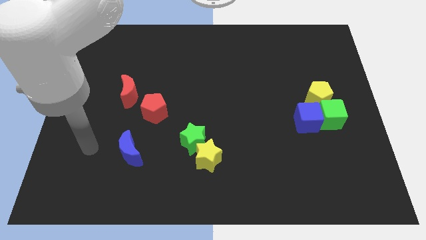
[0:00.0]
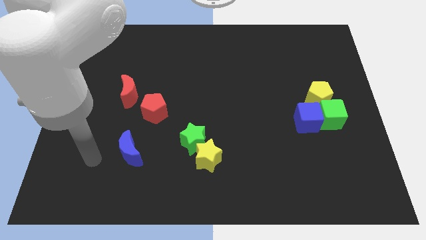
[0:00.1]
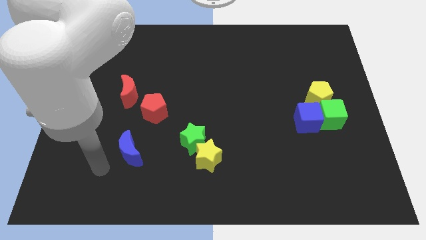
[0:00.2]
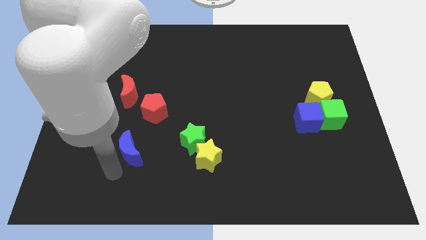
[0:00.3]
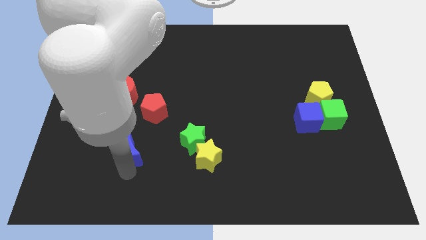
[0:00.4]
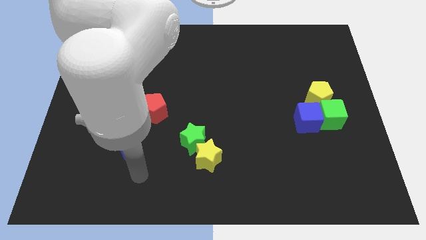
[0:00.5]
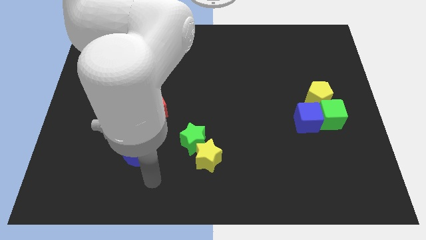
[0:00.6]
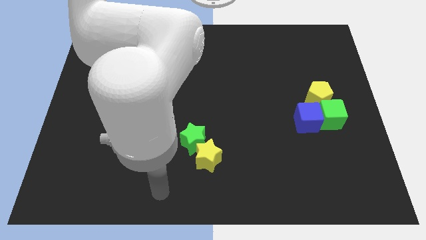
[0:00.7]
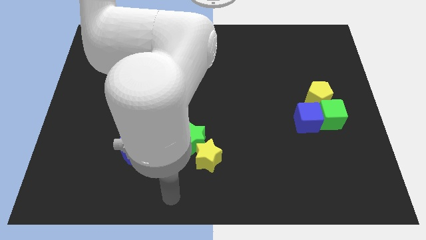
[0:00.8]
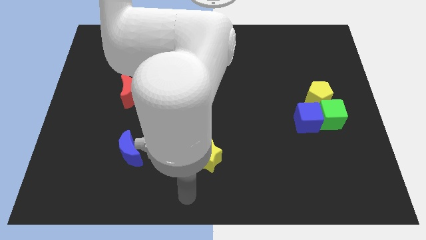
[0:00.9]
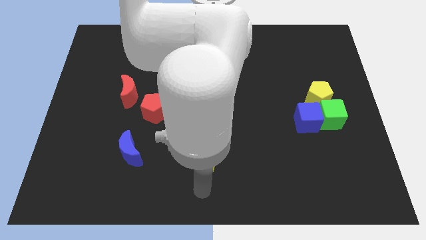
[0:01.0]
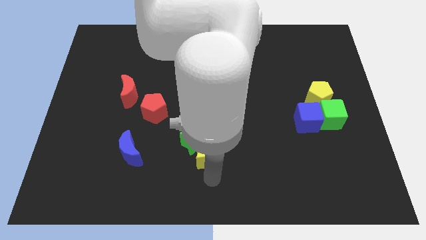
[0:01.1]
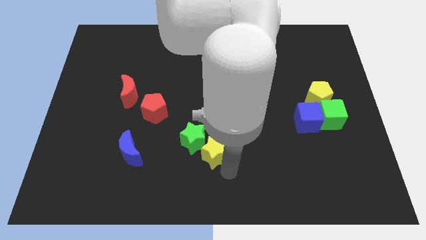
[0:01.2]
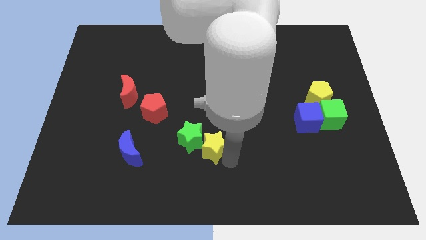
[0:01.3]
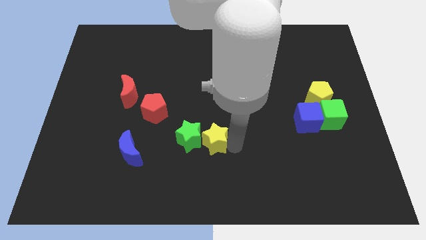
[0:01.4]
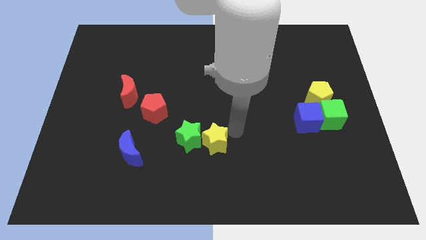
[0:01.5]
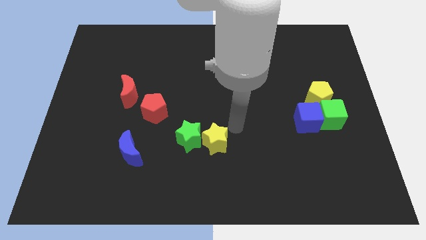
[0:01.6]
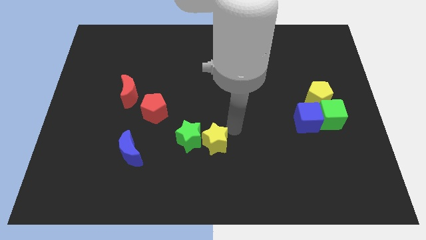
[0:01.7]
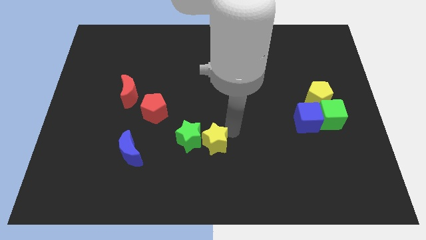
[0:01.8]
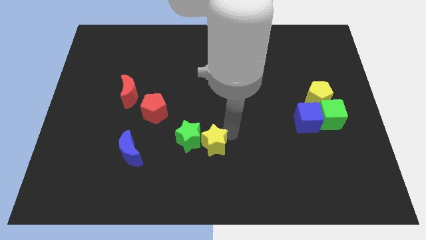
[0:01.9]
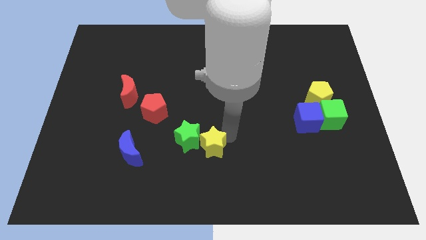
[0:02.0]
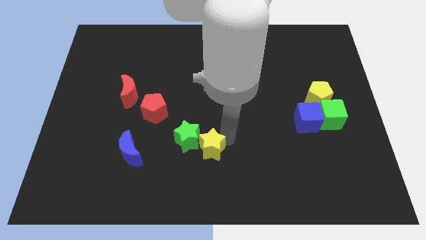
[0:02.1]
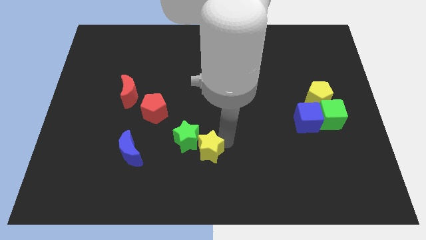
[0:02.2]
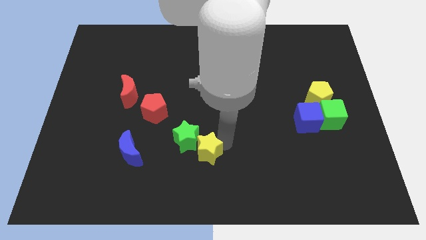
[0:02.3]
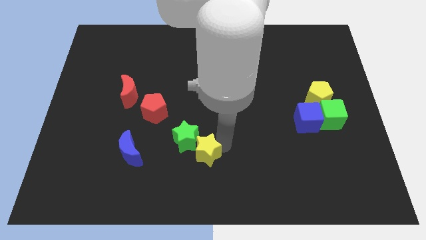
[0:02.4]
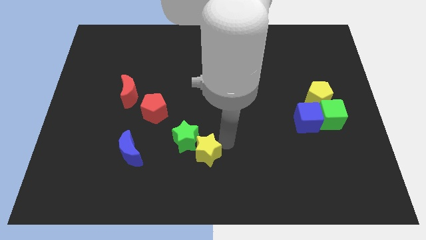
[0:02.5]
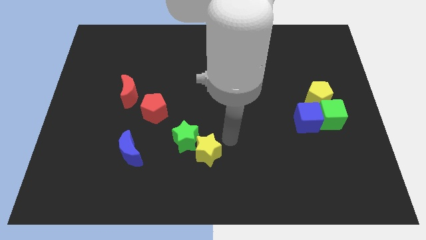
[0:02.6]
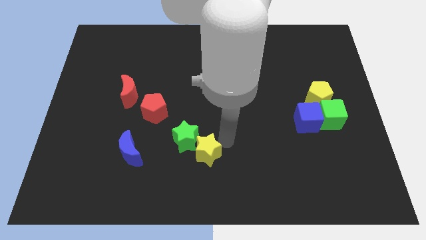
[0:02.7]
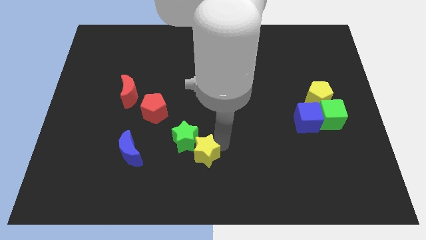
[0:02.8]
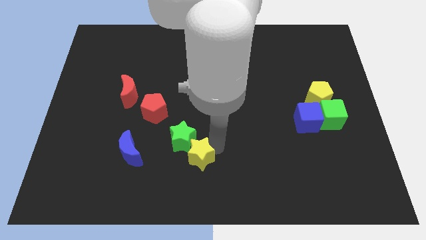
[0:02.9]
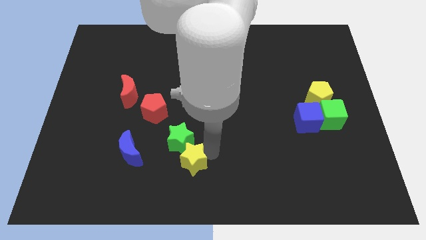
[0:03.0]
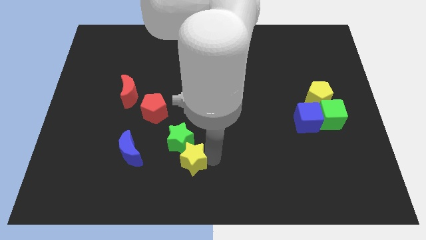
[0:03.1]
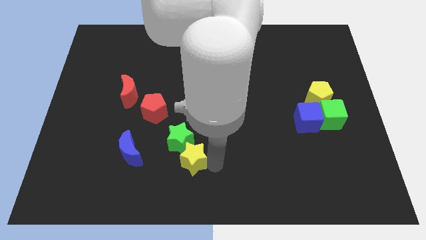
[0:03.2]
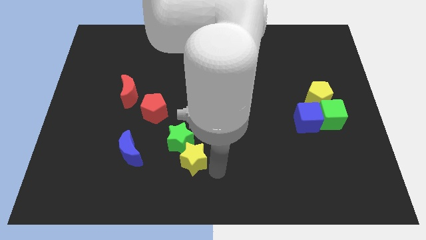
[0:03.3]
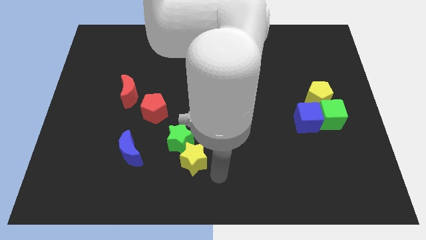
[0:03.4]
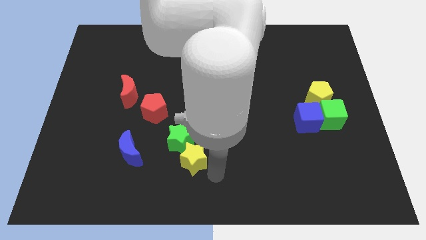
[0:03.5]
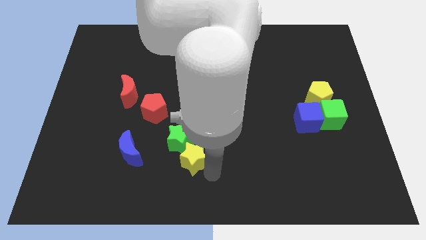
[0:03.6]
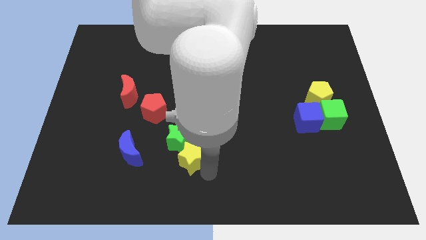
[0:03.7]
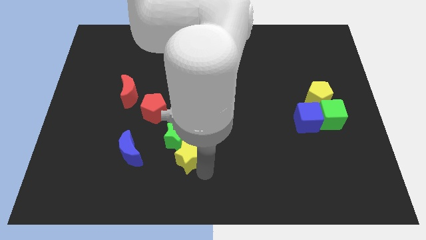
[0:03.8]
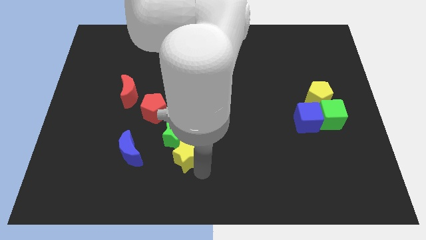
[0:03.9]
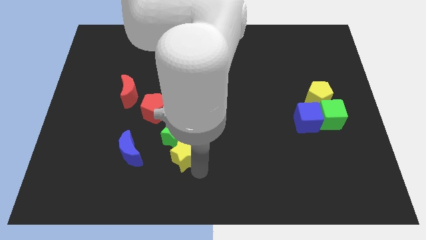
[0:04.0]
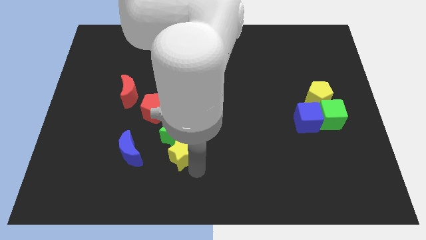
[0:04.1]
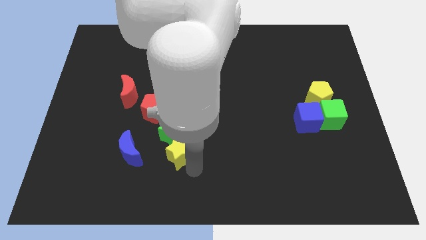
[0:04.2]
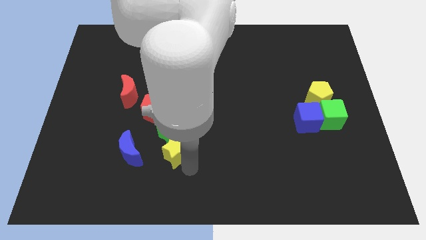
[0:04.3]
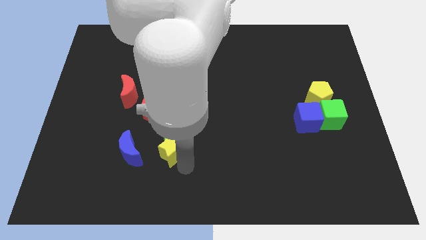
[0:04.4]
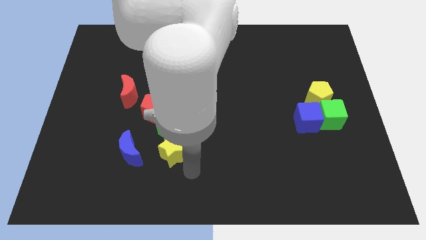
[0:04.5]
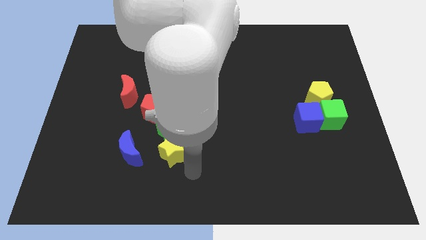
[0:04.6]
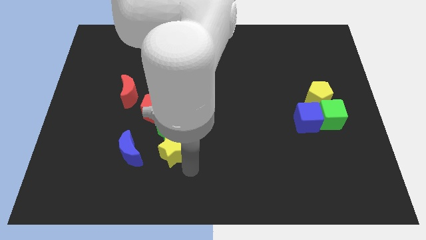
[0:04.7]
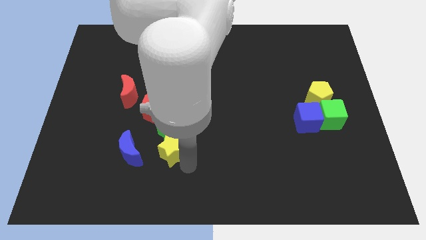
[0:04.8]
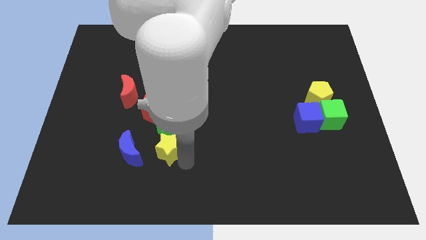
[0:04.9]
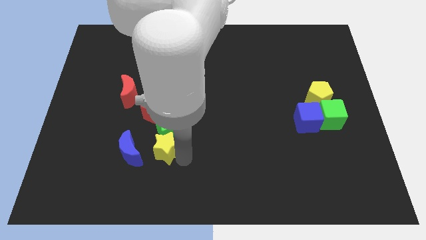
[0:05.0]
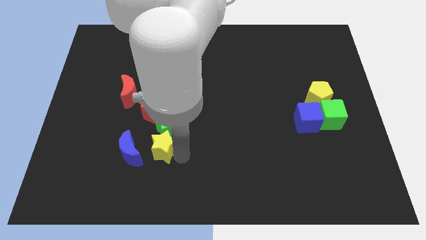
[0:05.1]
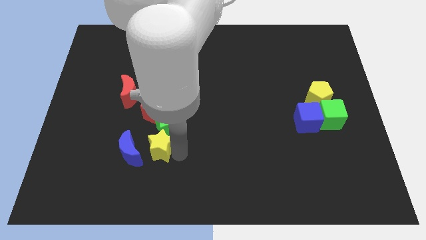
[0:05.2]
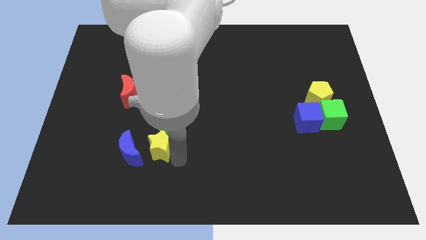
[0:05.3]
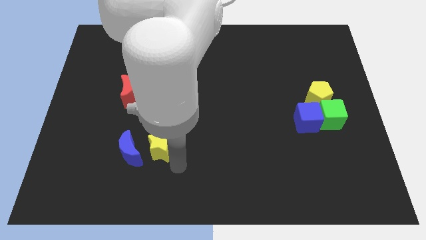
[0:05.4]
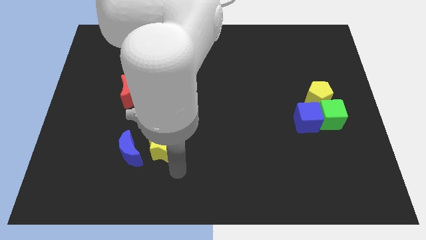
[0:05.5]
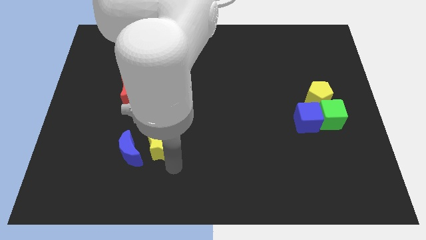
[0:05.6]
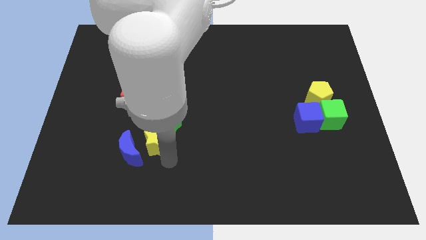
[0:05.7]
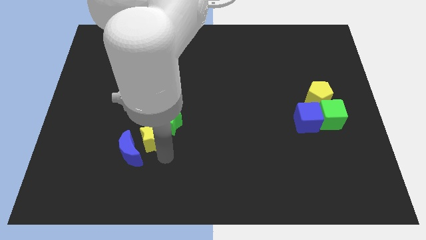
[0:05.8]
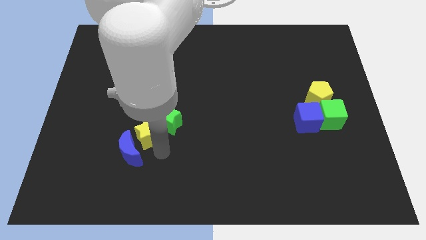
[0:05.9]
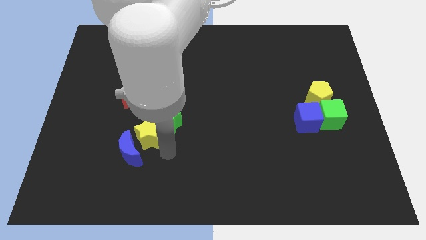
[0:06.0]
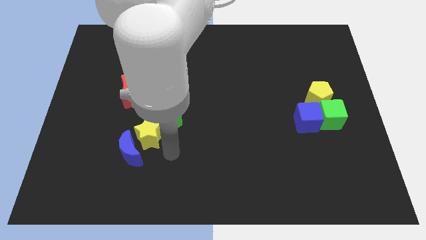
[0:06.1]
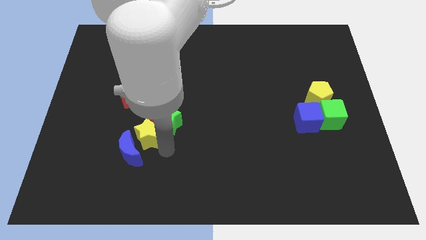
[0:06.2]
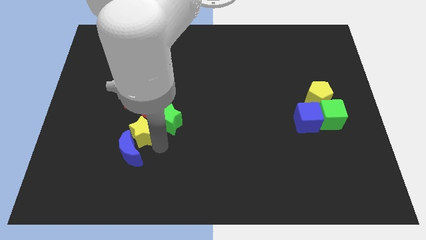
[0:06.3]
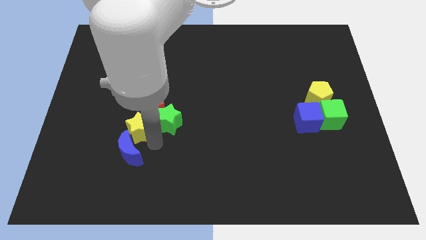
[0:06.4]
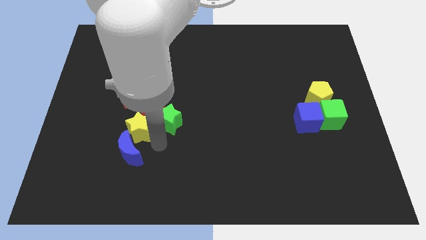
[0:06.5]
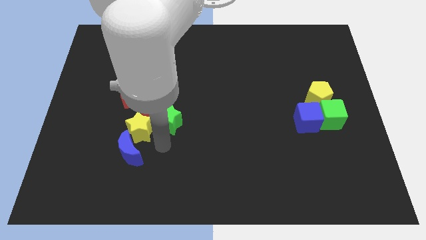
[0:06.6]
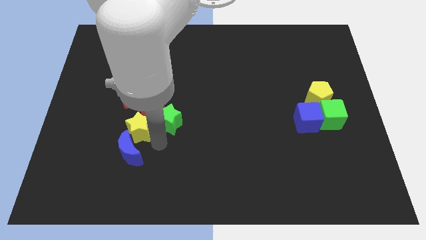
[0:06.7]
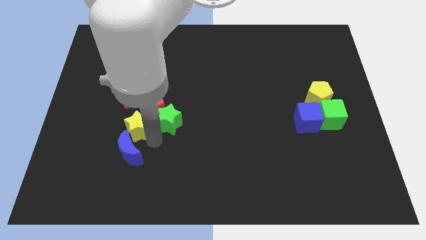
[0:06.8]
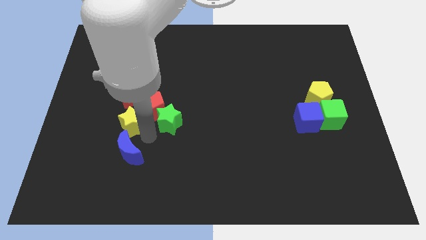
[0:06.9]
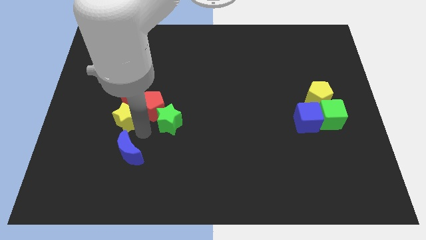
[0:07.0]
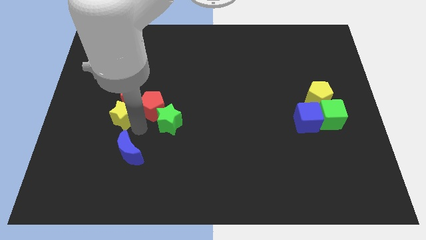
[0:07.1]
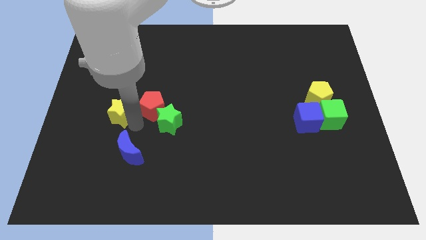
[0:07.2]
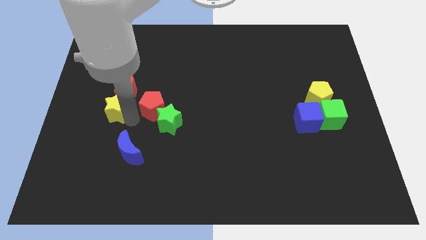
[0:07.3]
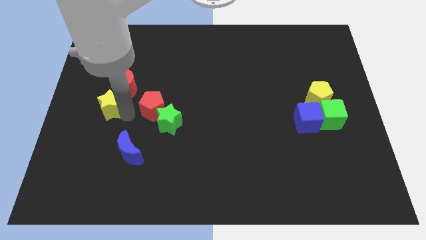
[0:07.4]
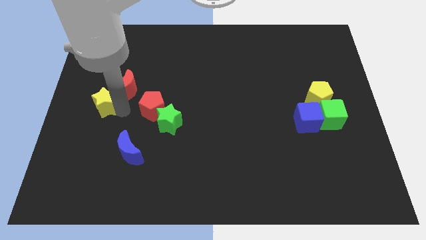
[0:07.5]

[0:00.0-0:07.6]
slide the yellow star to the center left
